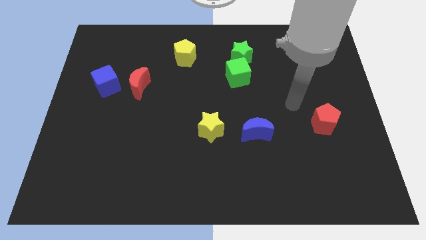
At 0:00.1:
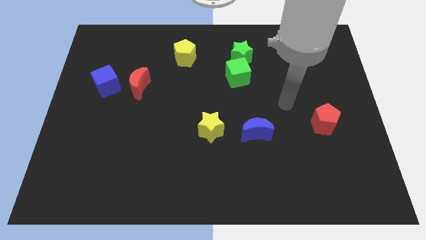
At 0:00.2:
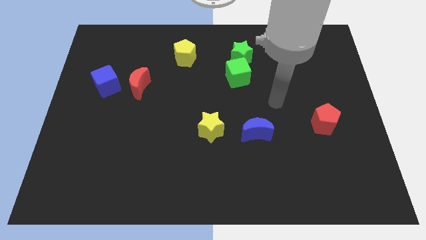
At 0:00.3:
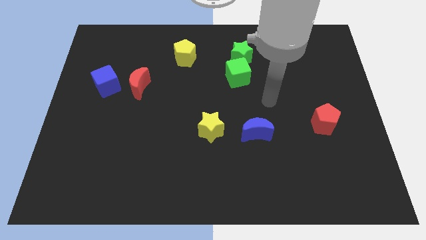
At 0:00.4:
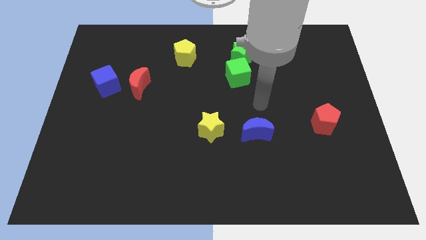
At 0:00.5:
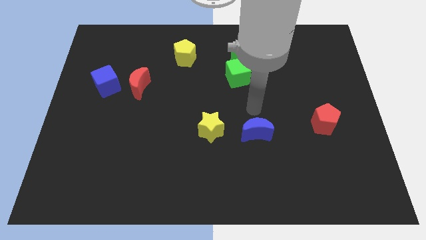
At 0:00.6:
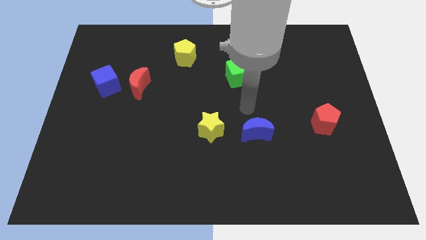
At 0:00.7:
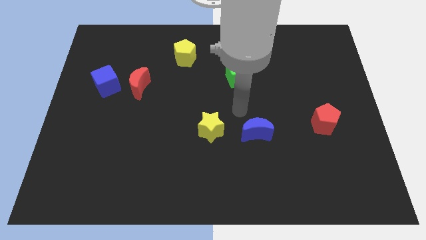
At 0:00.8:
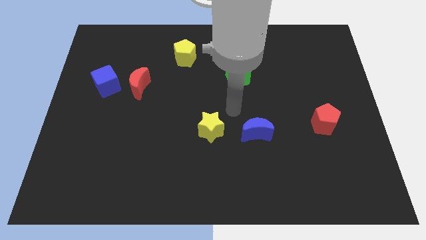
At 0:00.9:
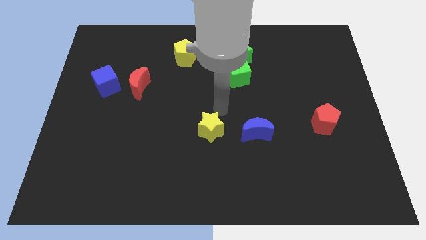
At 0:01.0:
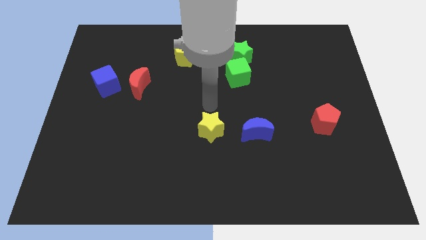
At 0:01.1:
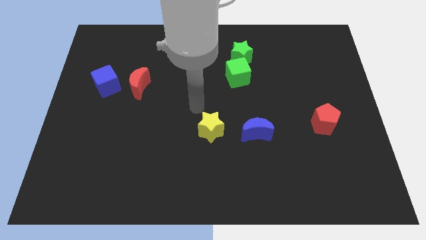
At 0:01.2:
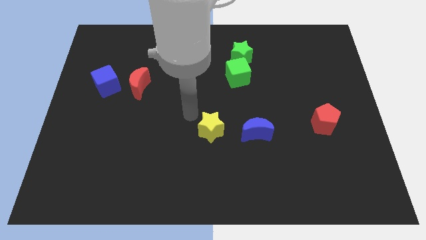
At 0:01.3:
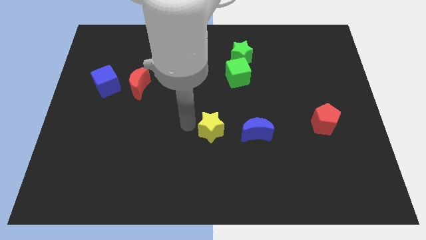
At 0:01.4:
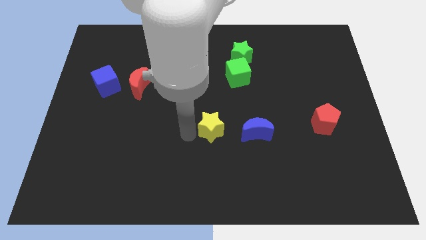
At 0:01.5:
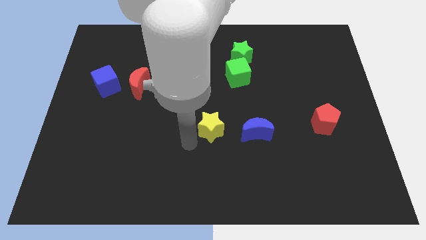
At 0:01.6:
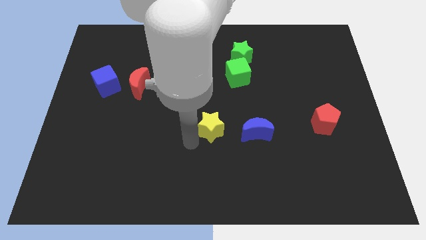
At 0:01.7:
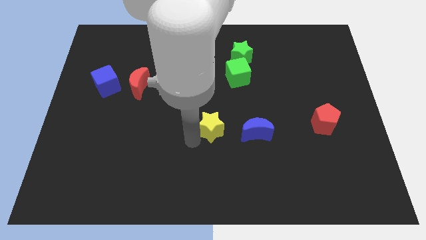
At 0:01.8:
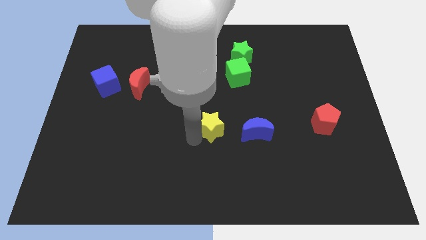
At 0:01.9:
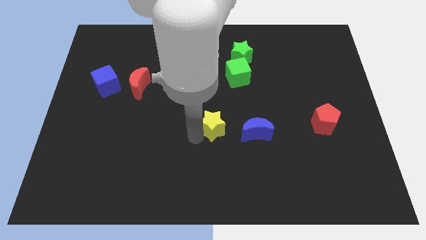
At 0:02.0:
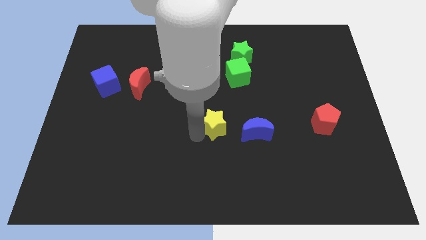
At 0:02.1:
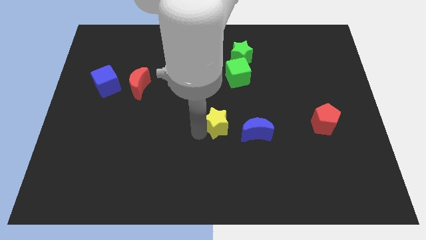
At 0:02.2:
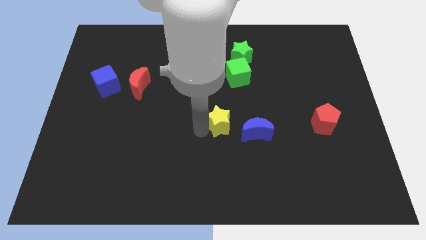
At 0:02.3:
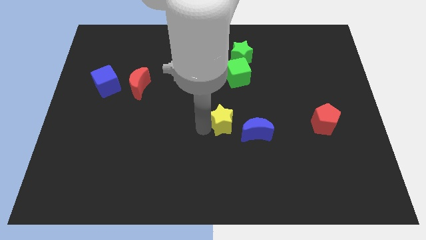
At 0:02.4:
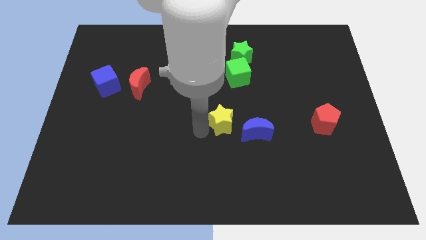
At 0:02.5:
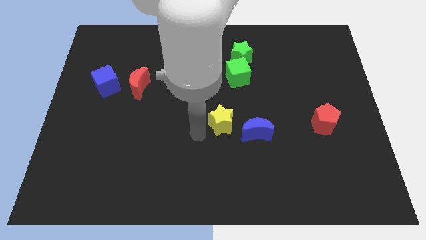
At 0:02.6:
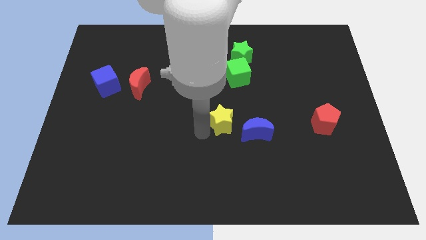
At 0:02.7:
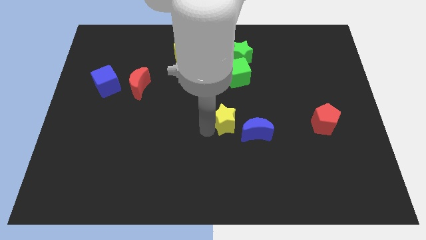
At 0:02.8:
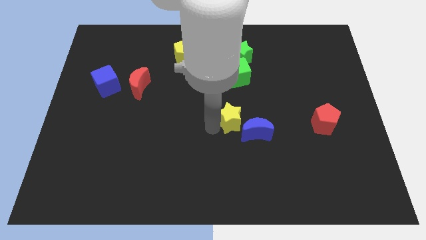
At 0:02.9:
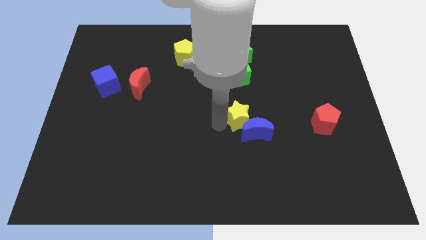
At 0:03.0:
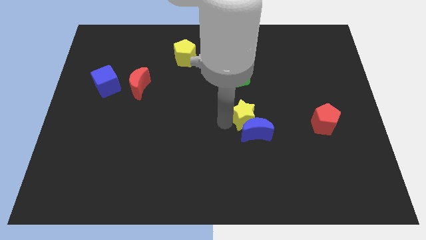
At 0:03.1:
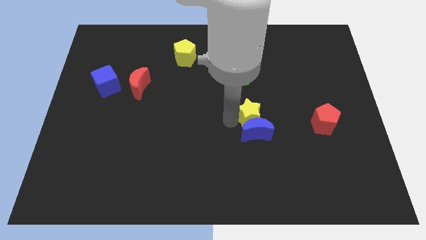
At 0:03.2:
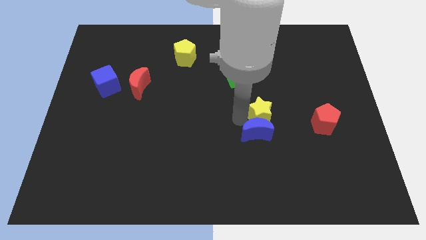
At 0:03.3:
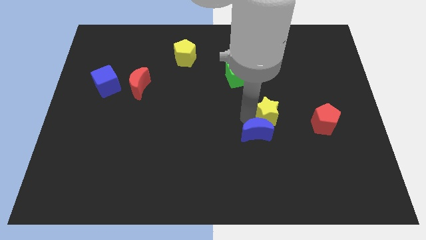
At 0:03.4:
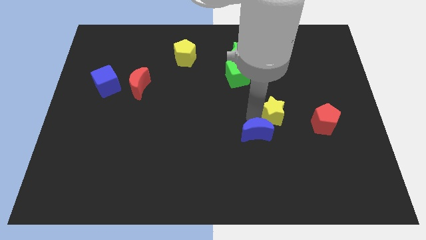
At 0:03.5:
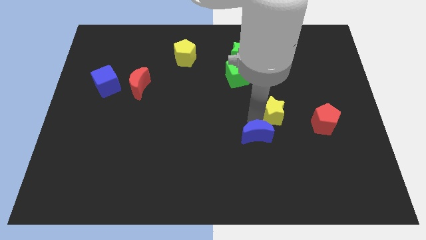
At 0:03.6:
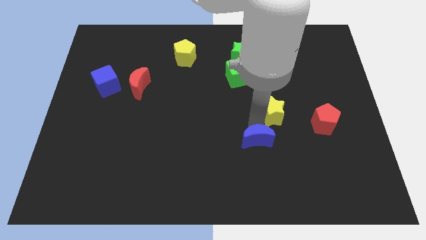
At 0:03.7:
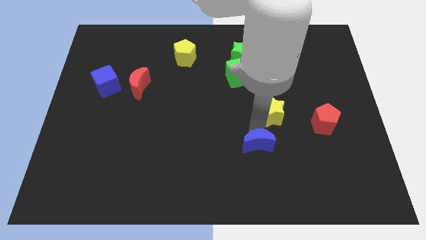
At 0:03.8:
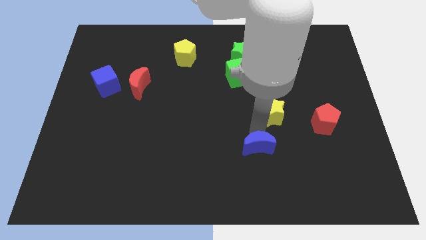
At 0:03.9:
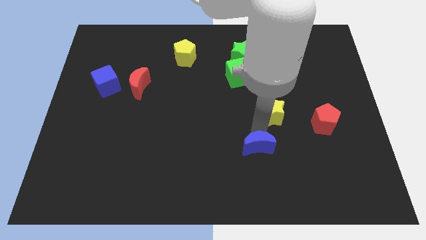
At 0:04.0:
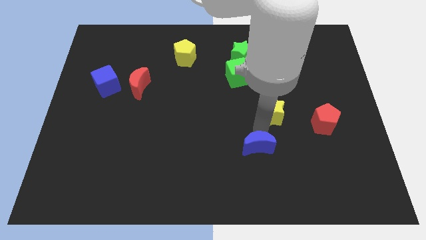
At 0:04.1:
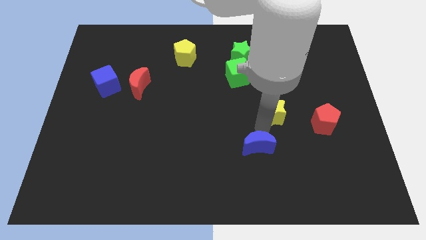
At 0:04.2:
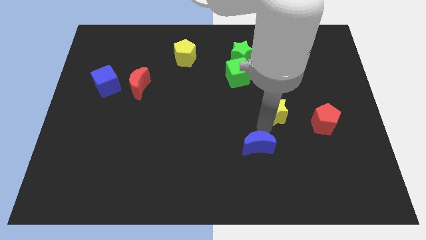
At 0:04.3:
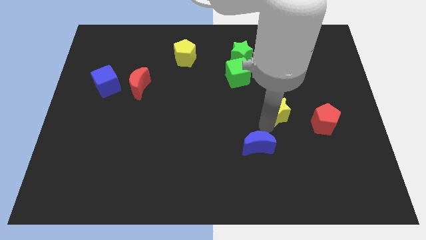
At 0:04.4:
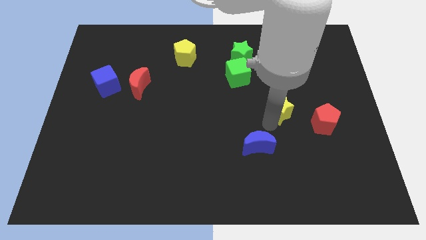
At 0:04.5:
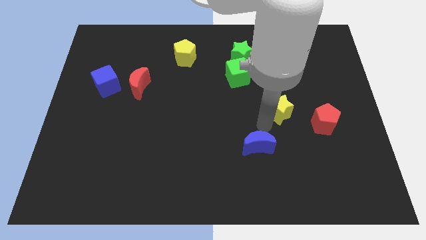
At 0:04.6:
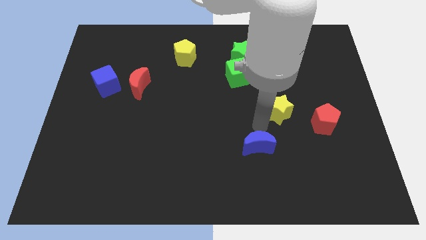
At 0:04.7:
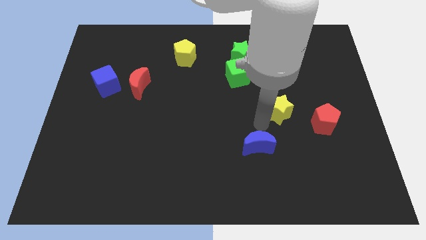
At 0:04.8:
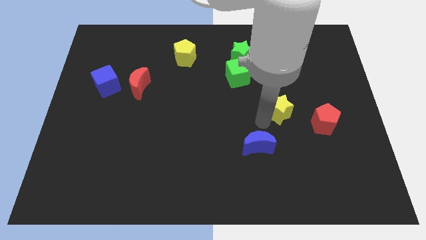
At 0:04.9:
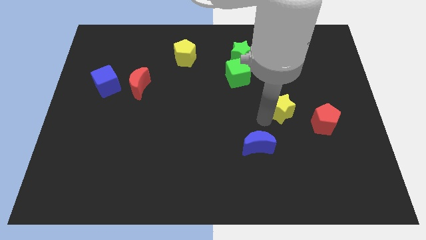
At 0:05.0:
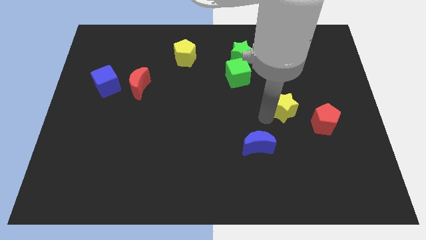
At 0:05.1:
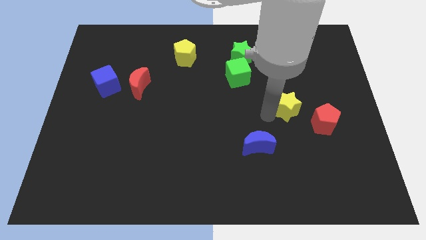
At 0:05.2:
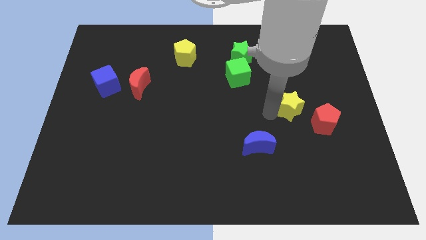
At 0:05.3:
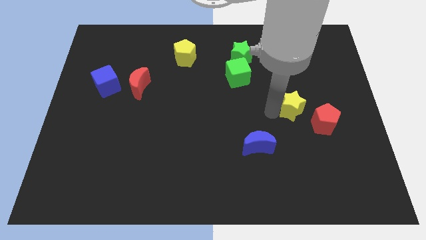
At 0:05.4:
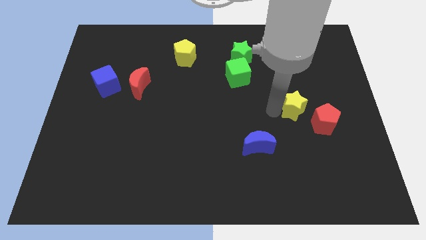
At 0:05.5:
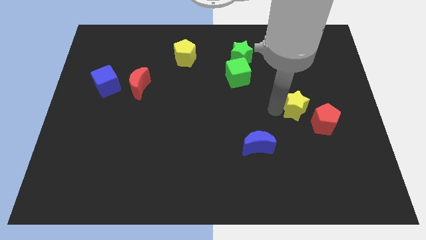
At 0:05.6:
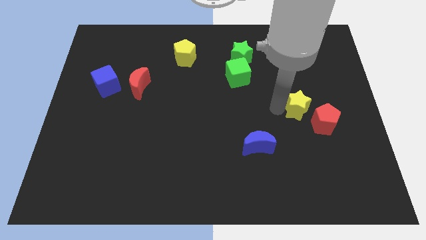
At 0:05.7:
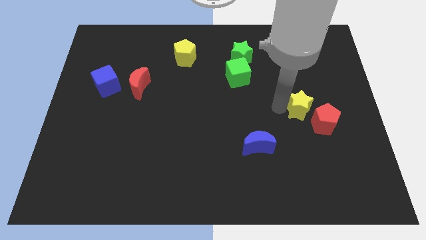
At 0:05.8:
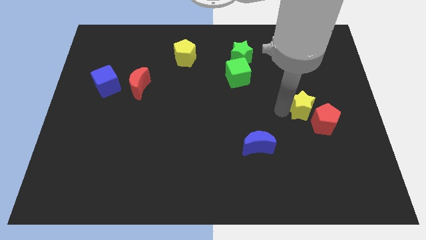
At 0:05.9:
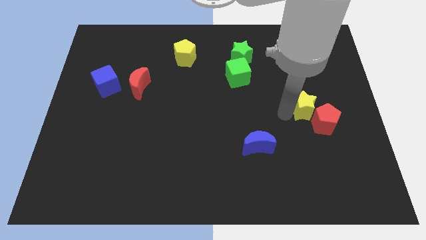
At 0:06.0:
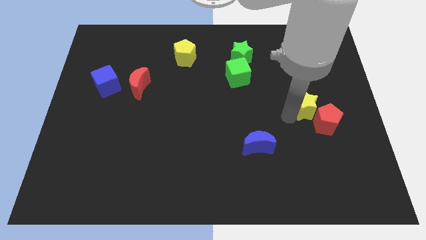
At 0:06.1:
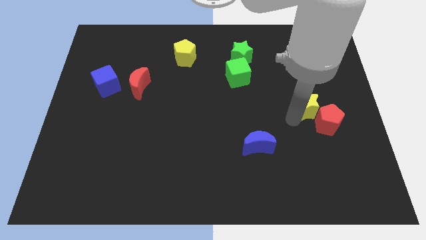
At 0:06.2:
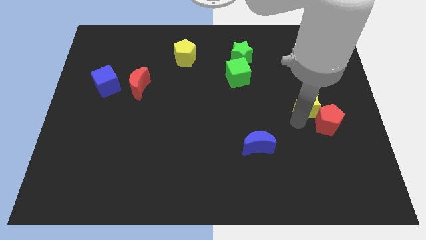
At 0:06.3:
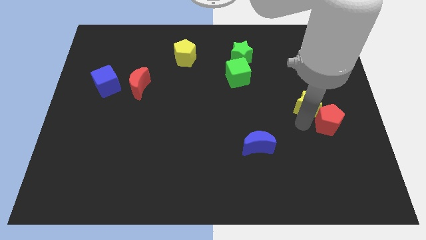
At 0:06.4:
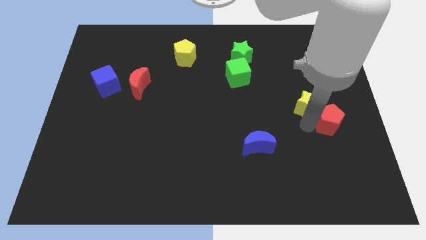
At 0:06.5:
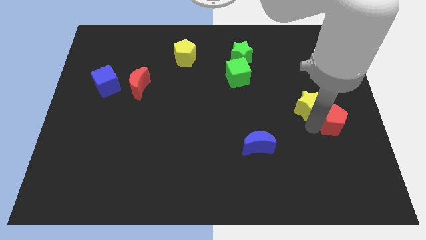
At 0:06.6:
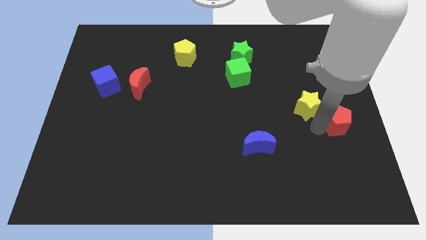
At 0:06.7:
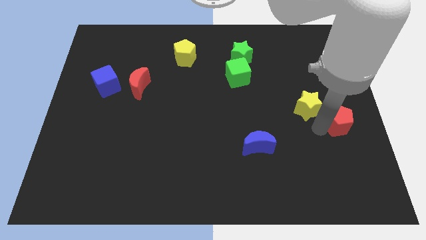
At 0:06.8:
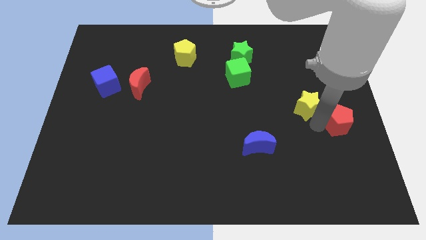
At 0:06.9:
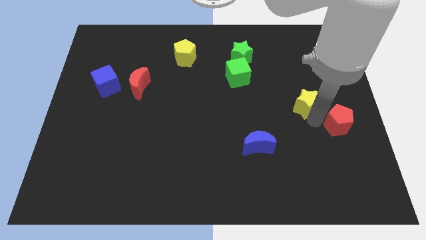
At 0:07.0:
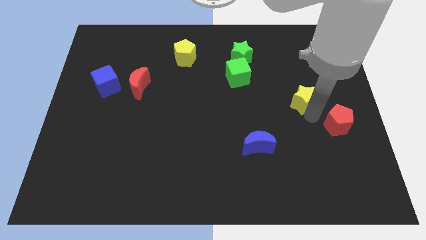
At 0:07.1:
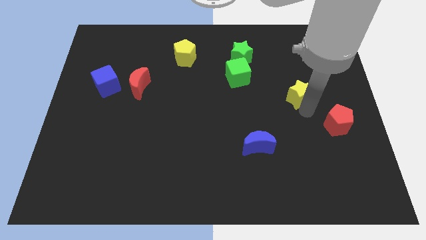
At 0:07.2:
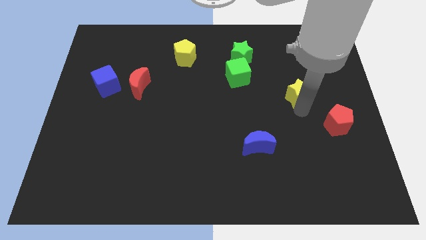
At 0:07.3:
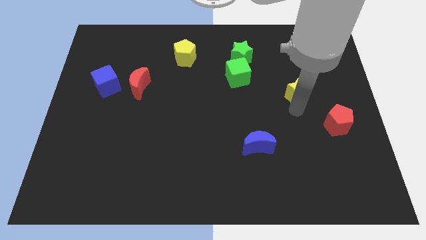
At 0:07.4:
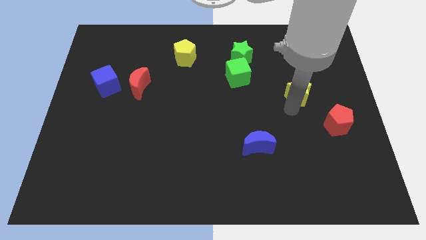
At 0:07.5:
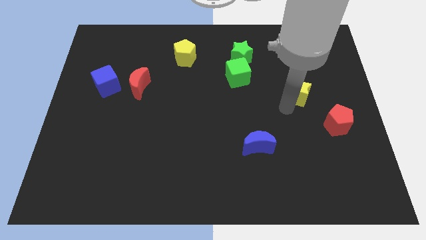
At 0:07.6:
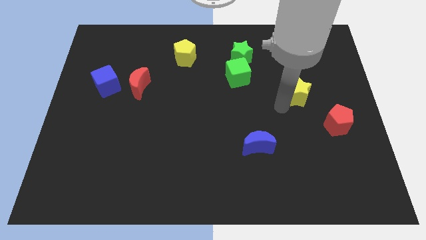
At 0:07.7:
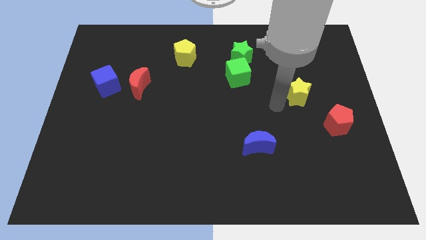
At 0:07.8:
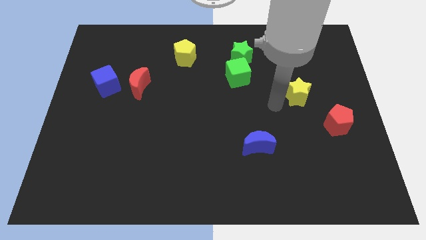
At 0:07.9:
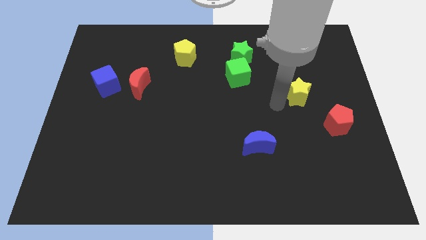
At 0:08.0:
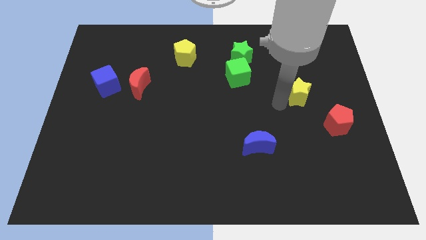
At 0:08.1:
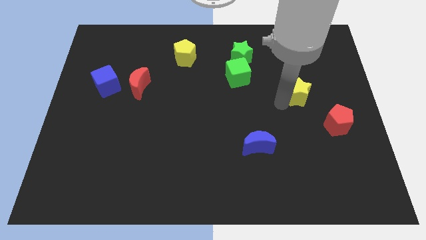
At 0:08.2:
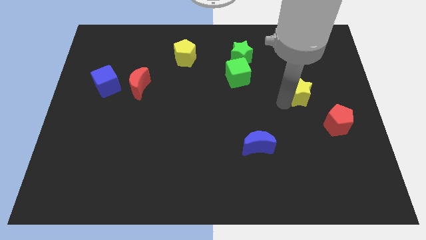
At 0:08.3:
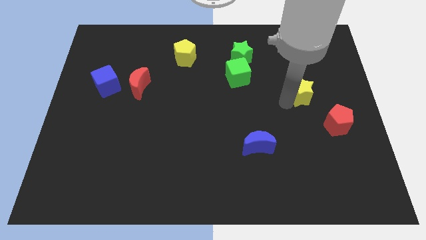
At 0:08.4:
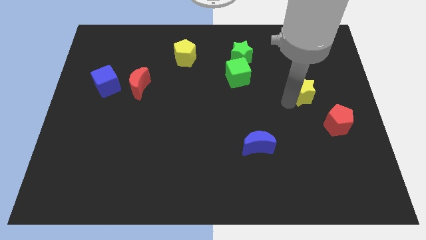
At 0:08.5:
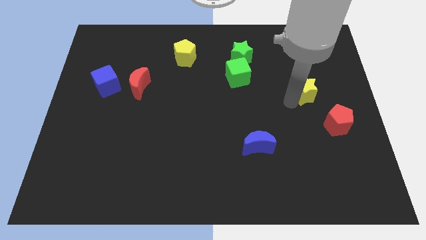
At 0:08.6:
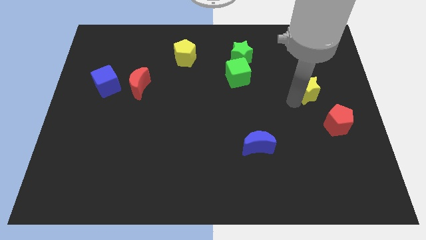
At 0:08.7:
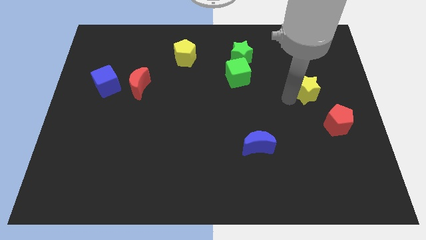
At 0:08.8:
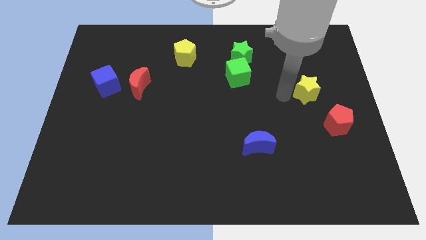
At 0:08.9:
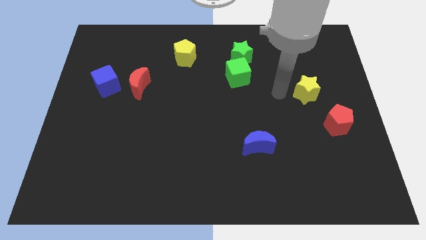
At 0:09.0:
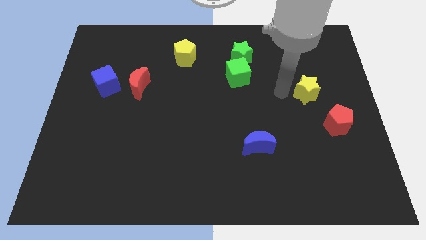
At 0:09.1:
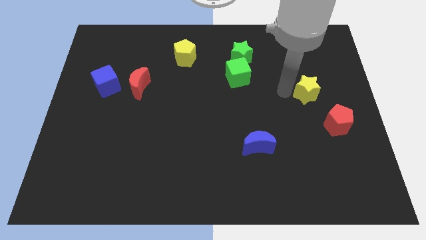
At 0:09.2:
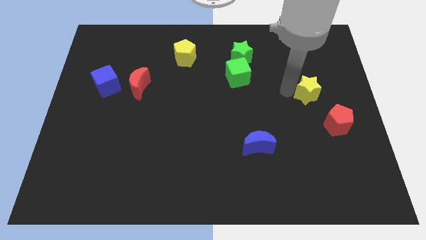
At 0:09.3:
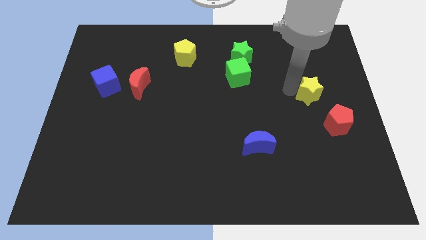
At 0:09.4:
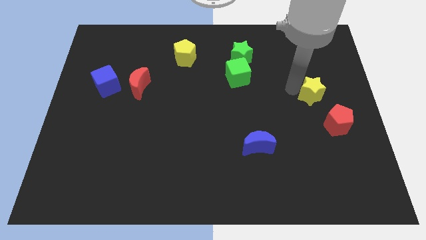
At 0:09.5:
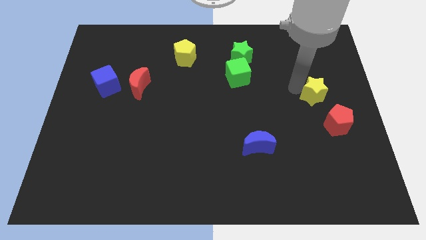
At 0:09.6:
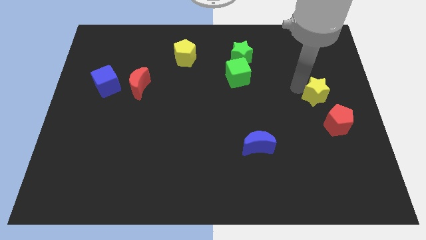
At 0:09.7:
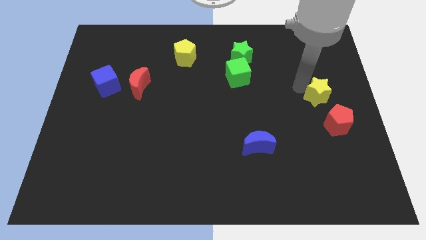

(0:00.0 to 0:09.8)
slide the yellow star to the center right
